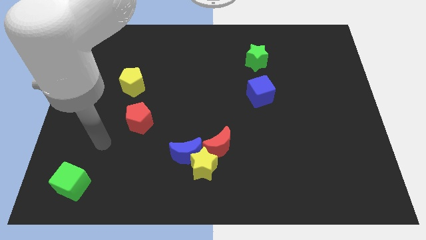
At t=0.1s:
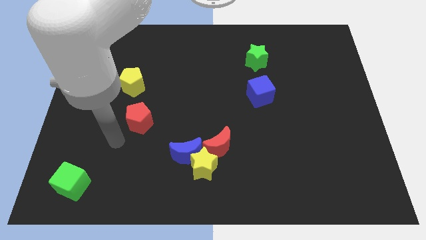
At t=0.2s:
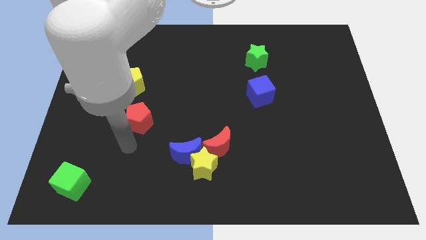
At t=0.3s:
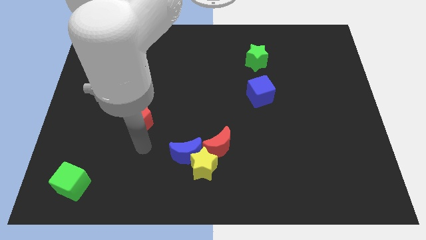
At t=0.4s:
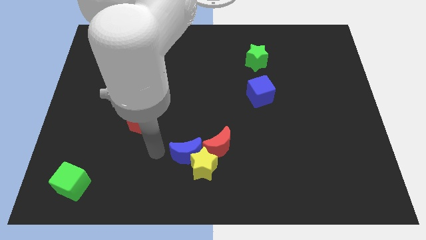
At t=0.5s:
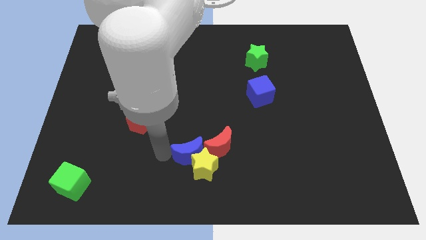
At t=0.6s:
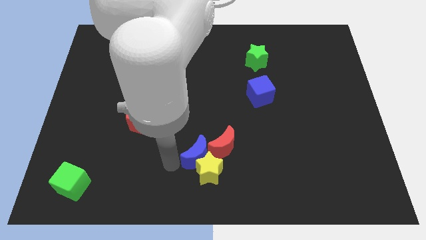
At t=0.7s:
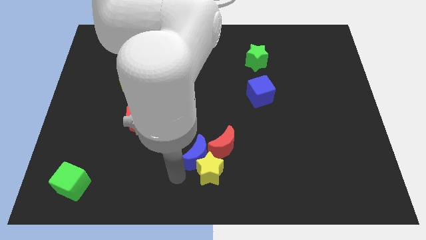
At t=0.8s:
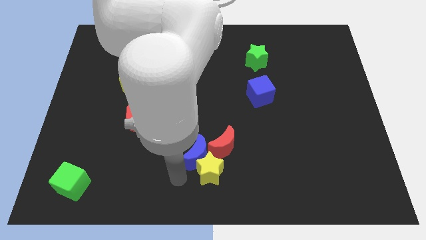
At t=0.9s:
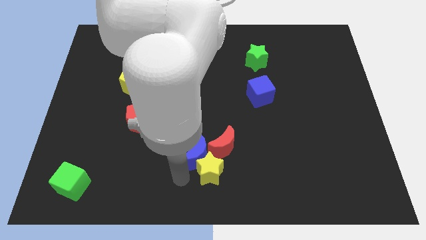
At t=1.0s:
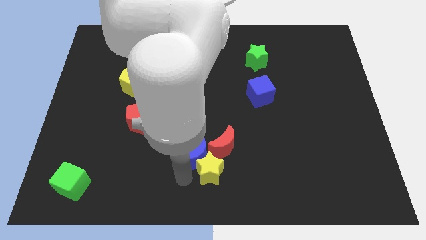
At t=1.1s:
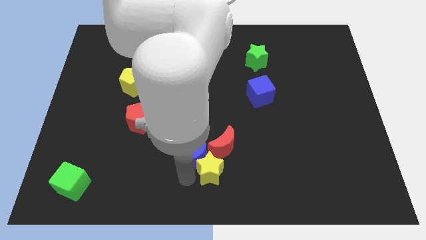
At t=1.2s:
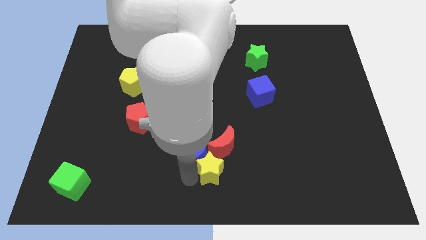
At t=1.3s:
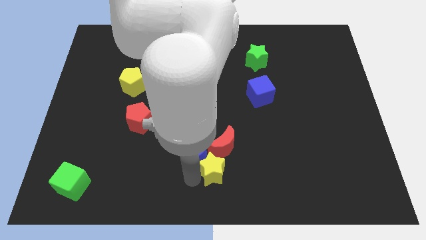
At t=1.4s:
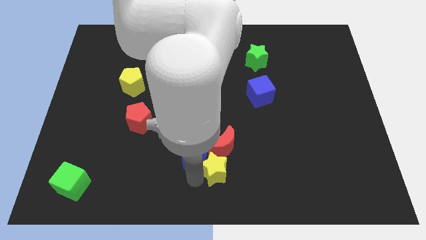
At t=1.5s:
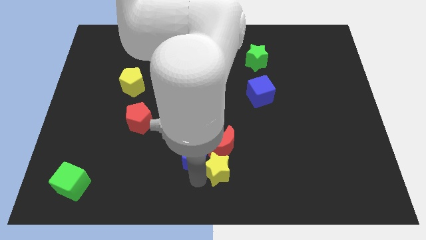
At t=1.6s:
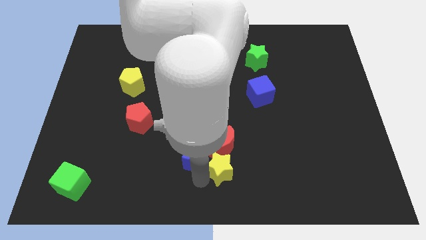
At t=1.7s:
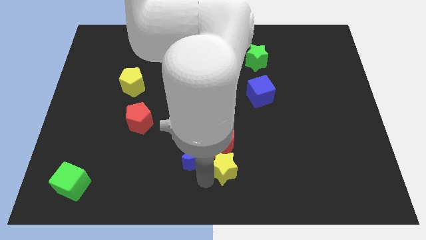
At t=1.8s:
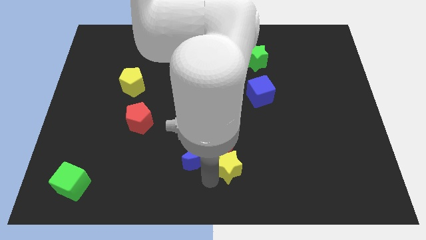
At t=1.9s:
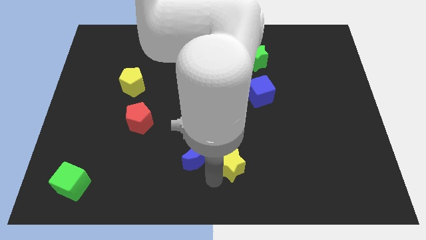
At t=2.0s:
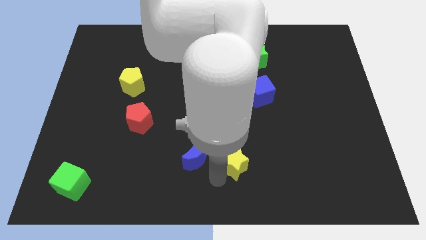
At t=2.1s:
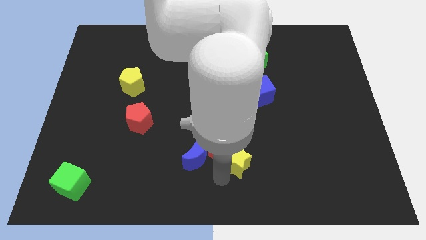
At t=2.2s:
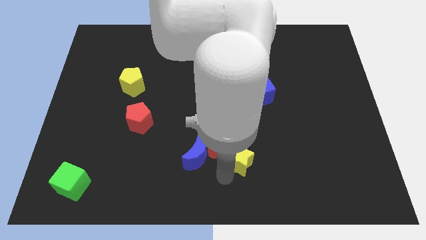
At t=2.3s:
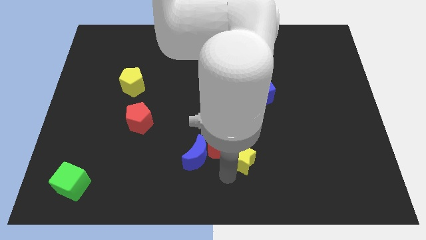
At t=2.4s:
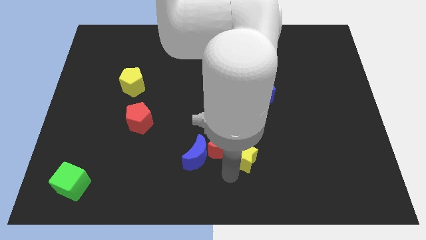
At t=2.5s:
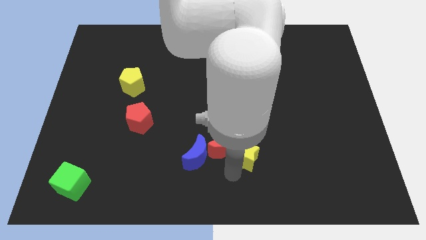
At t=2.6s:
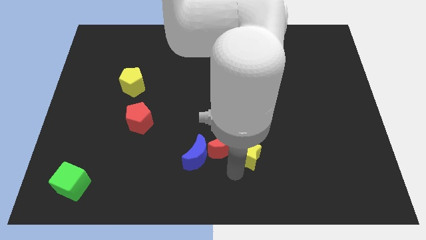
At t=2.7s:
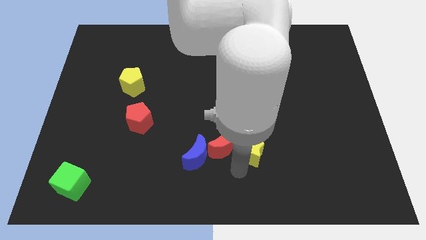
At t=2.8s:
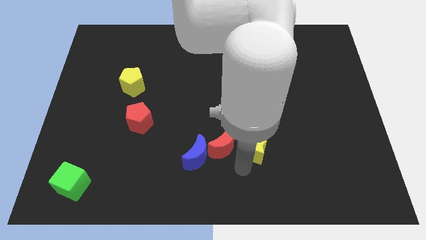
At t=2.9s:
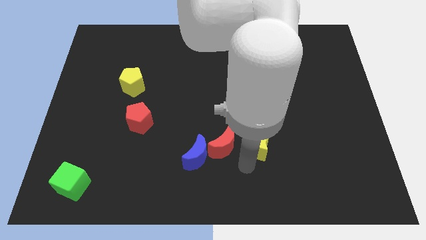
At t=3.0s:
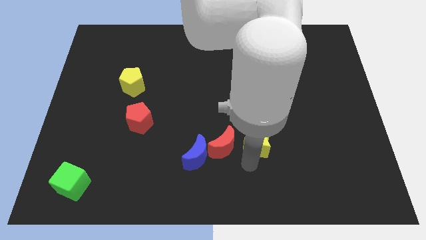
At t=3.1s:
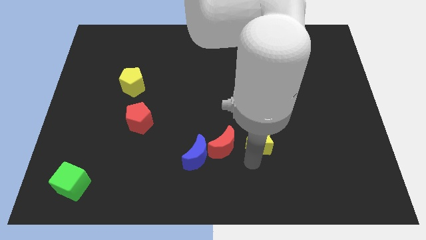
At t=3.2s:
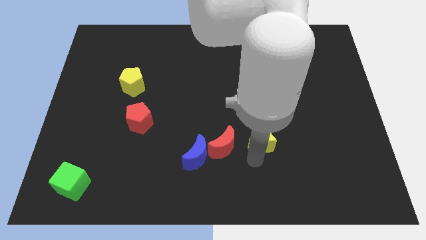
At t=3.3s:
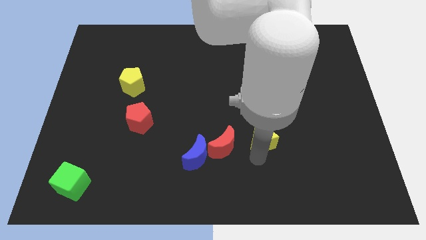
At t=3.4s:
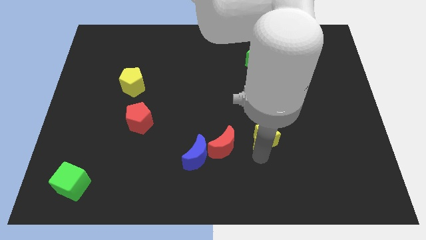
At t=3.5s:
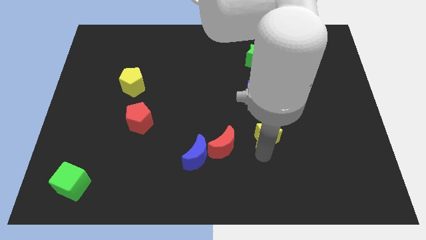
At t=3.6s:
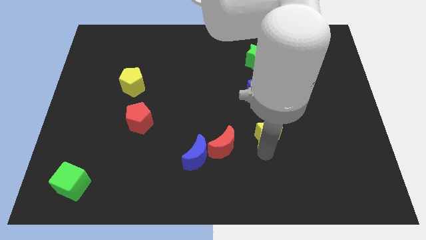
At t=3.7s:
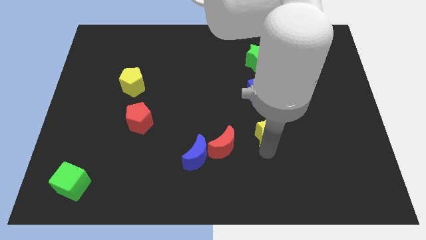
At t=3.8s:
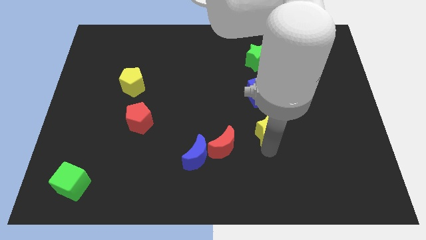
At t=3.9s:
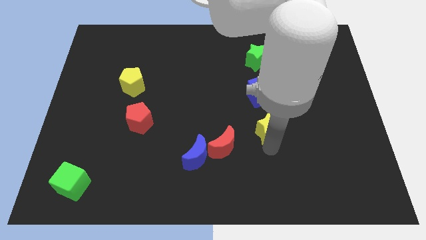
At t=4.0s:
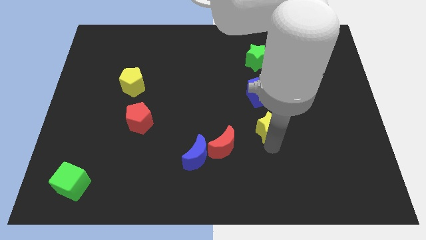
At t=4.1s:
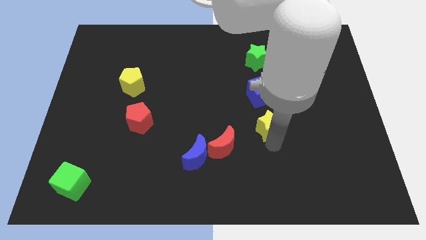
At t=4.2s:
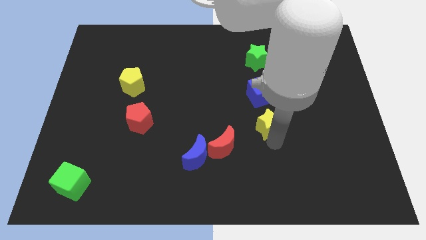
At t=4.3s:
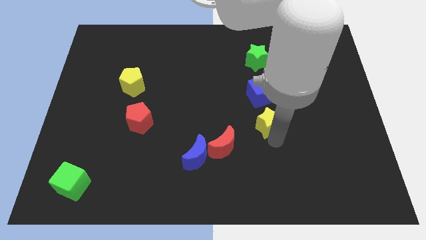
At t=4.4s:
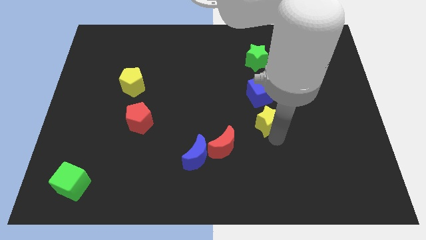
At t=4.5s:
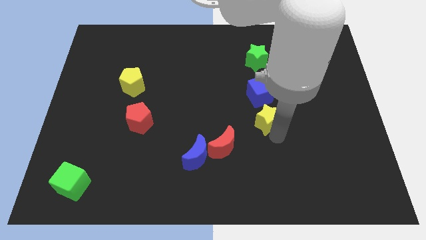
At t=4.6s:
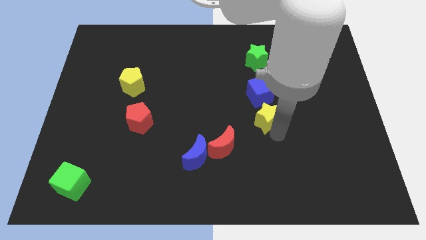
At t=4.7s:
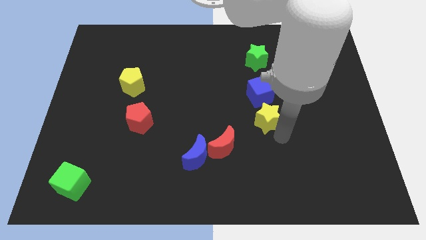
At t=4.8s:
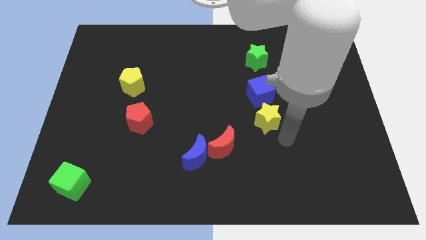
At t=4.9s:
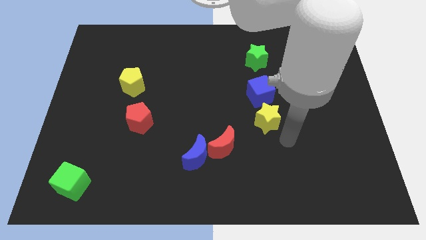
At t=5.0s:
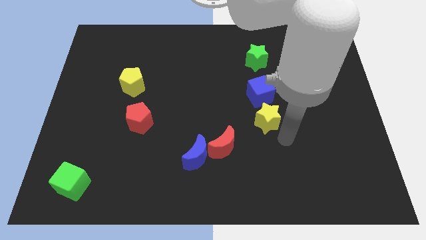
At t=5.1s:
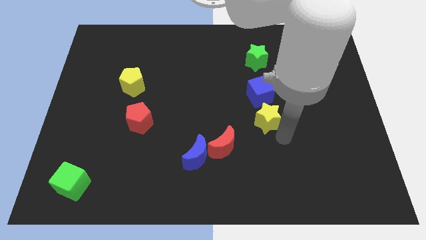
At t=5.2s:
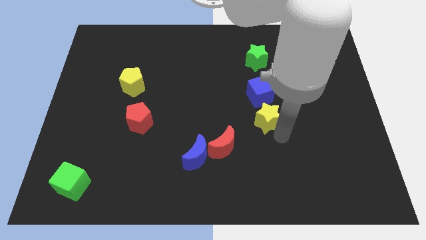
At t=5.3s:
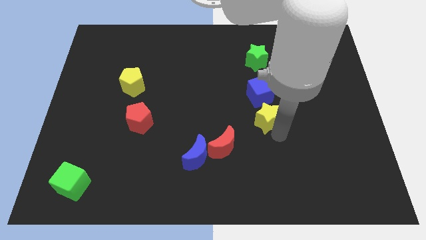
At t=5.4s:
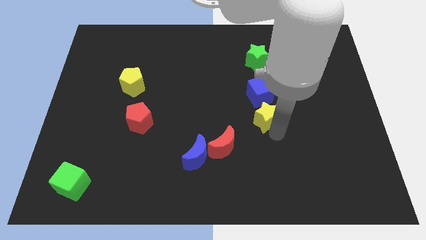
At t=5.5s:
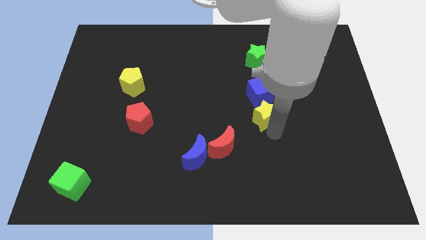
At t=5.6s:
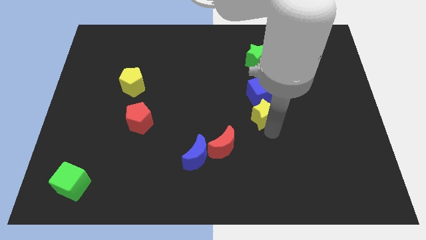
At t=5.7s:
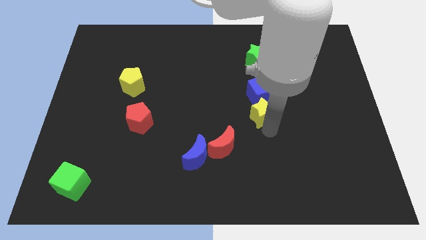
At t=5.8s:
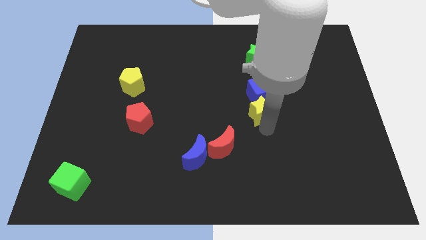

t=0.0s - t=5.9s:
slide the yellow star next to the blue cube

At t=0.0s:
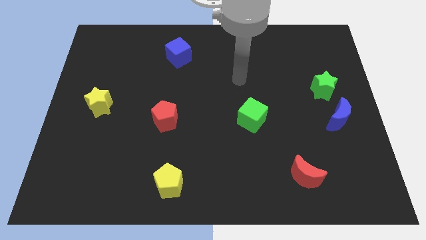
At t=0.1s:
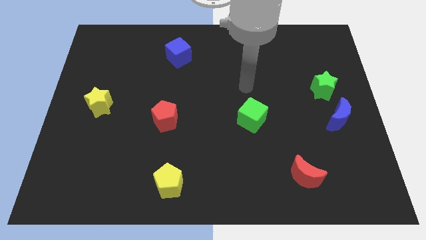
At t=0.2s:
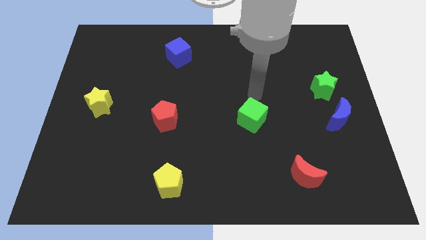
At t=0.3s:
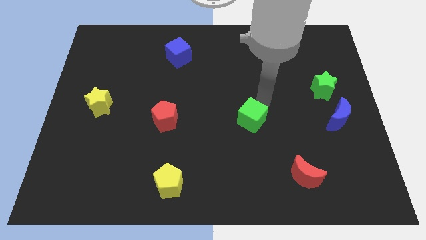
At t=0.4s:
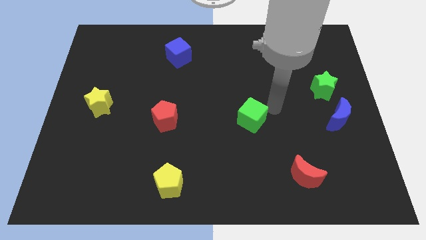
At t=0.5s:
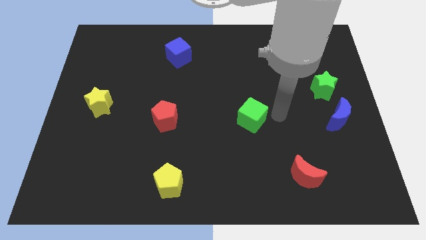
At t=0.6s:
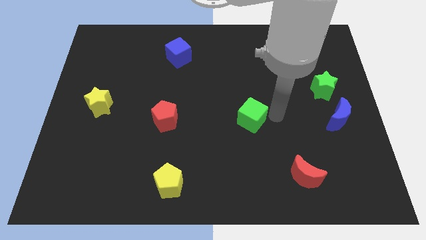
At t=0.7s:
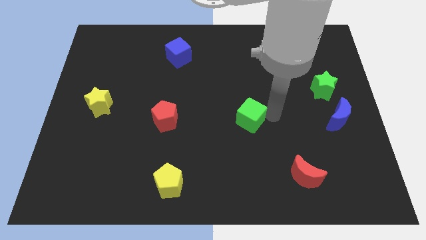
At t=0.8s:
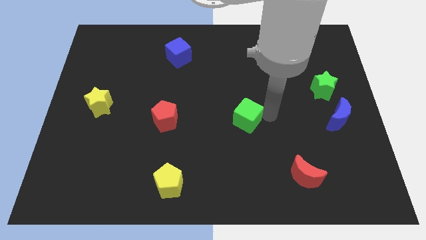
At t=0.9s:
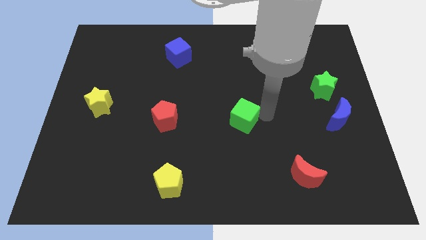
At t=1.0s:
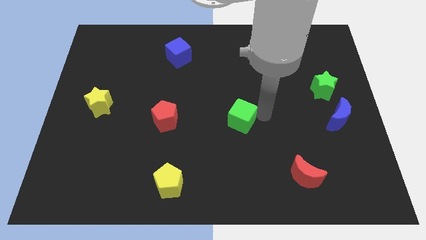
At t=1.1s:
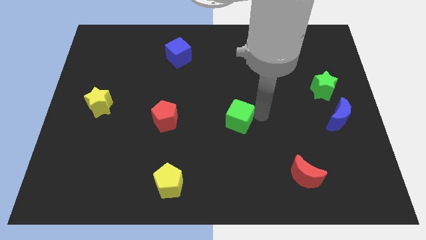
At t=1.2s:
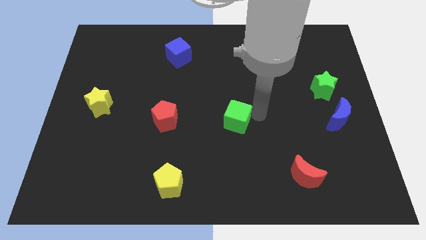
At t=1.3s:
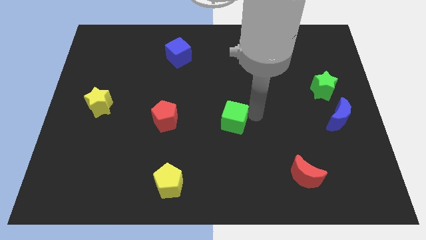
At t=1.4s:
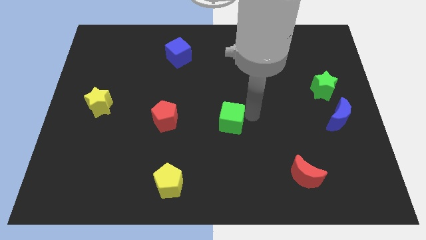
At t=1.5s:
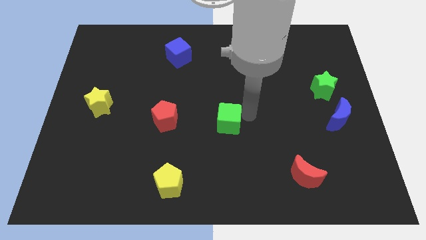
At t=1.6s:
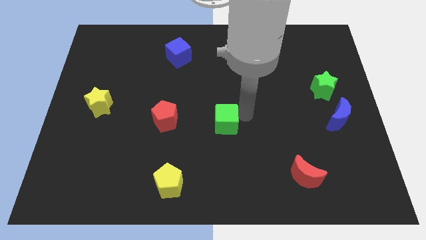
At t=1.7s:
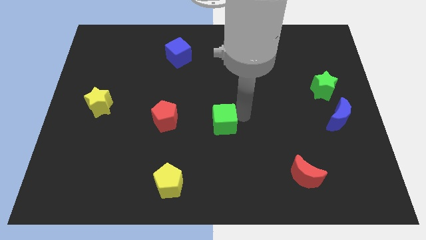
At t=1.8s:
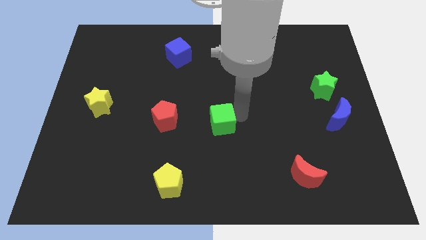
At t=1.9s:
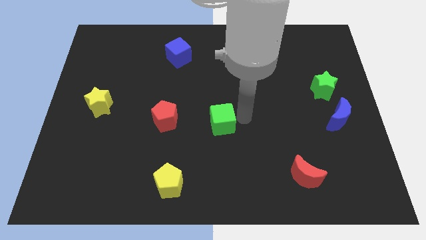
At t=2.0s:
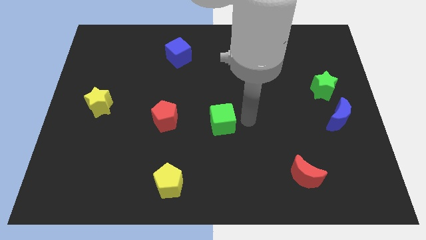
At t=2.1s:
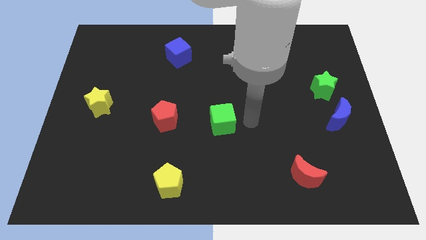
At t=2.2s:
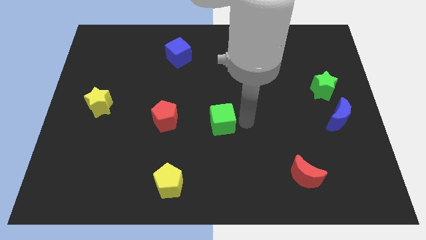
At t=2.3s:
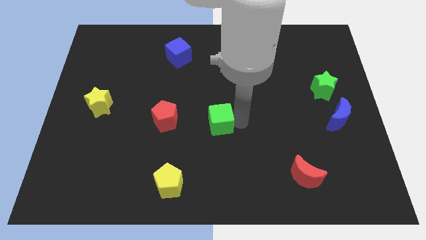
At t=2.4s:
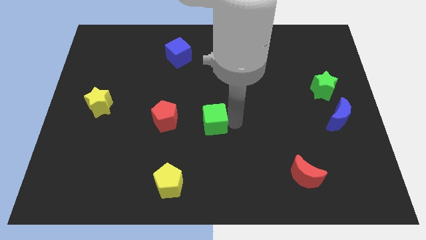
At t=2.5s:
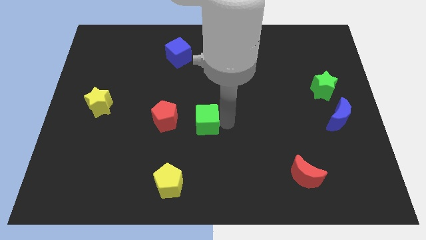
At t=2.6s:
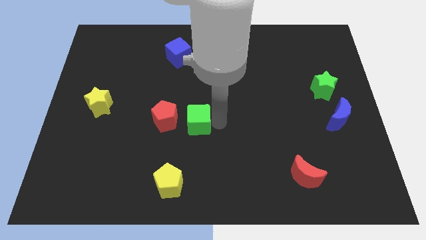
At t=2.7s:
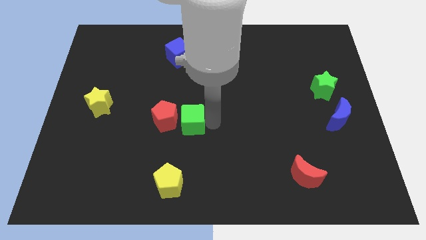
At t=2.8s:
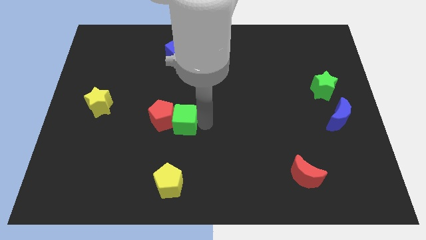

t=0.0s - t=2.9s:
push the green cube close to the red pentagon
